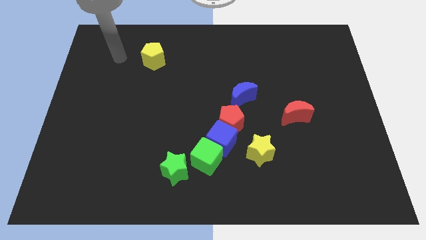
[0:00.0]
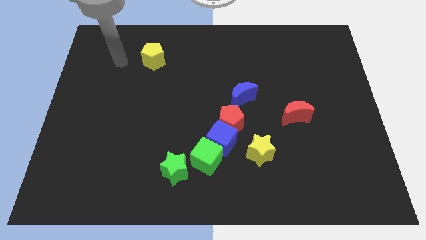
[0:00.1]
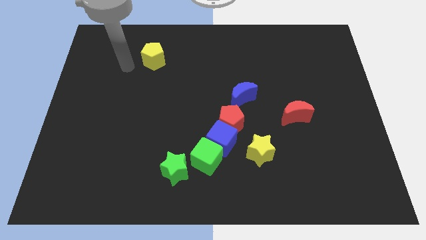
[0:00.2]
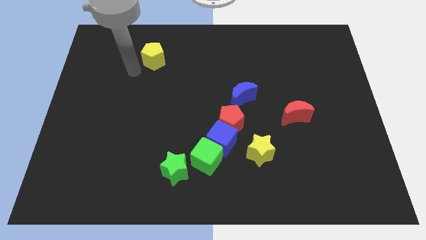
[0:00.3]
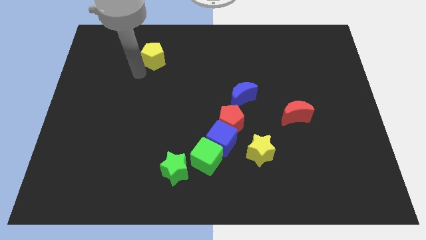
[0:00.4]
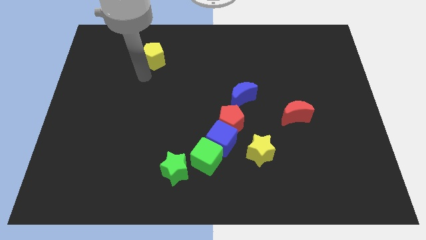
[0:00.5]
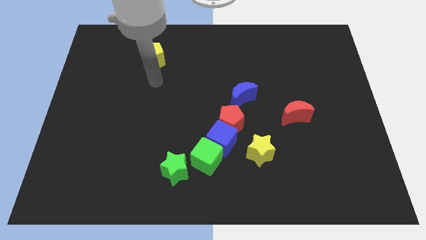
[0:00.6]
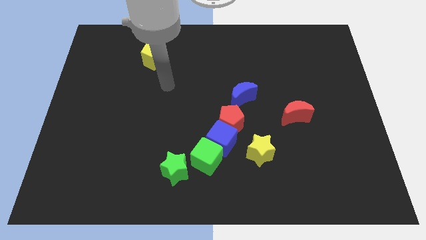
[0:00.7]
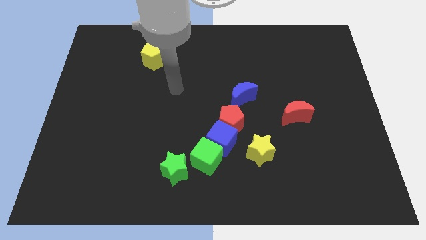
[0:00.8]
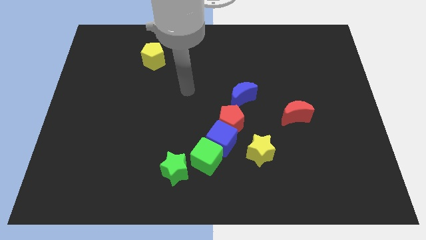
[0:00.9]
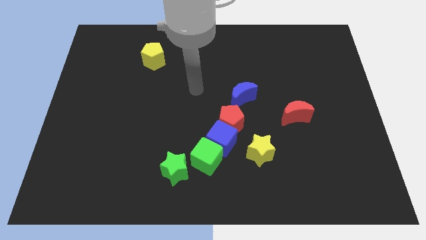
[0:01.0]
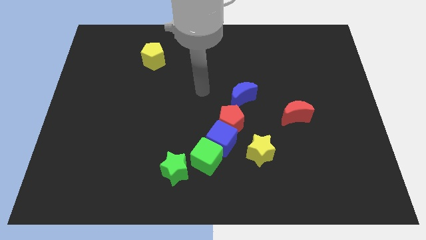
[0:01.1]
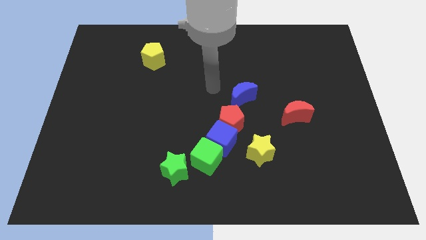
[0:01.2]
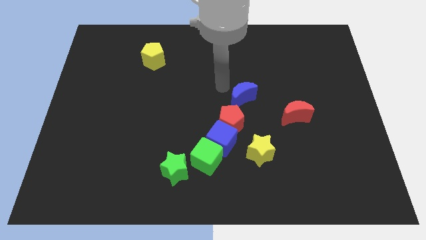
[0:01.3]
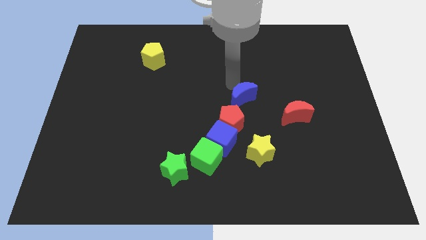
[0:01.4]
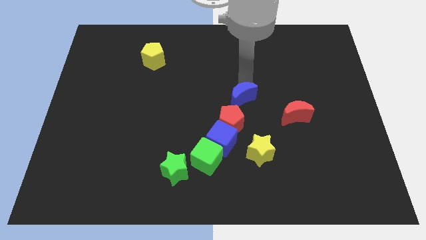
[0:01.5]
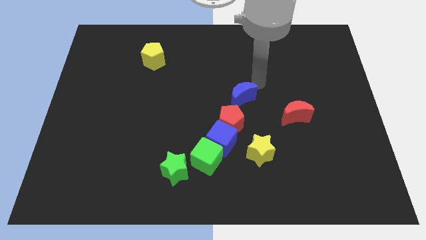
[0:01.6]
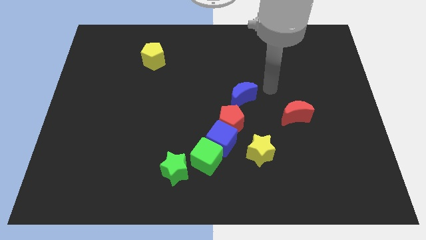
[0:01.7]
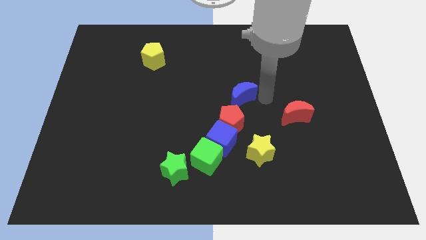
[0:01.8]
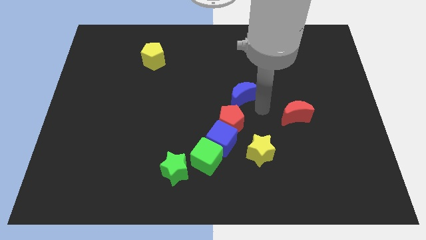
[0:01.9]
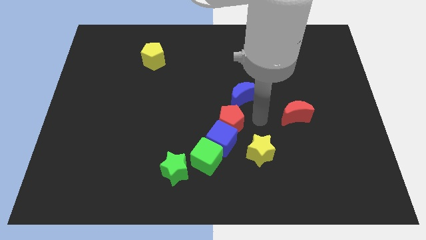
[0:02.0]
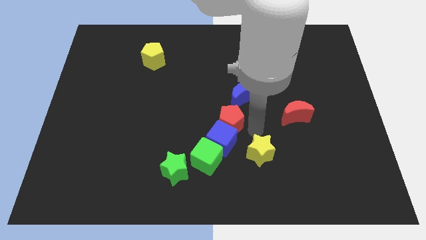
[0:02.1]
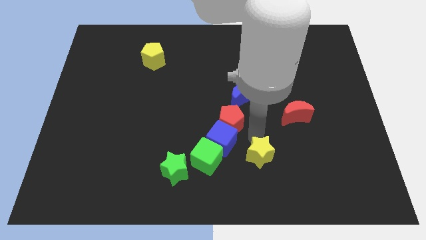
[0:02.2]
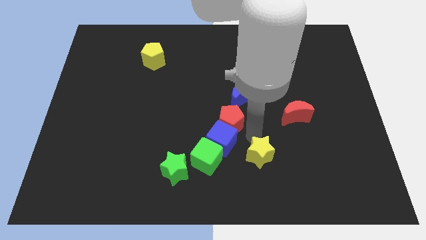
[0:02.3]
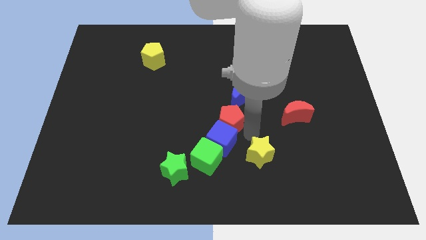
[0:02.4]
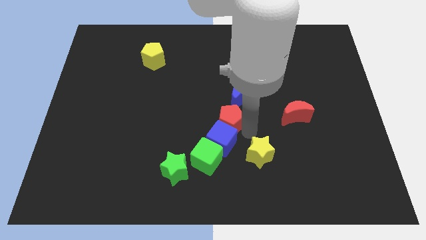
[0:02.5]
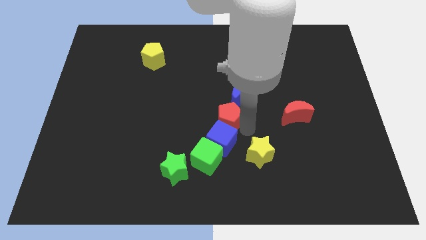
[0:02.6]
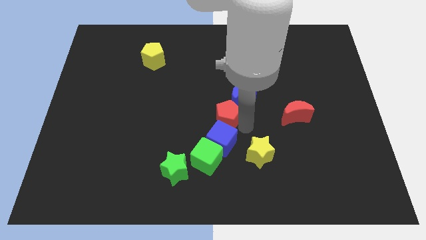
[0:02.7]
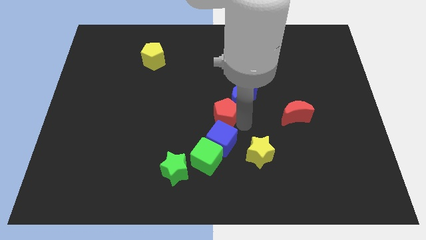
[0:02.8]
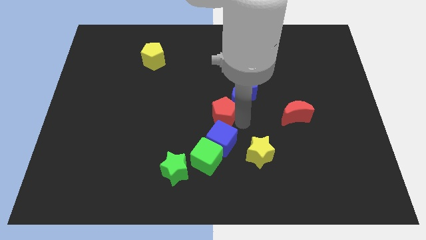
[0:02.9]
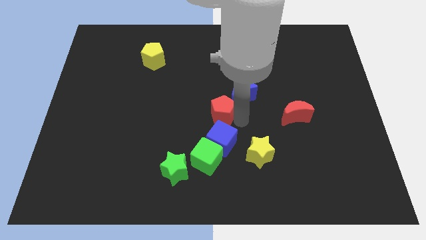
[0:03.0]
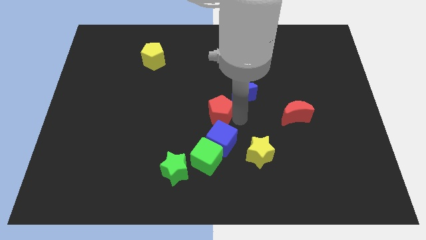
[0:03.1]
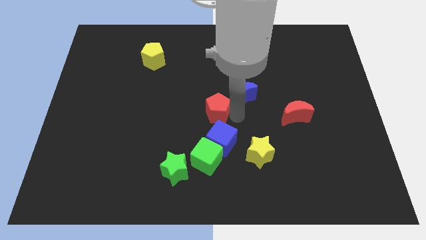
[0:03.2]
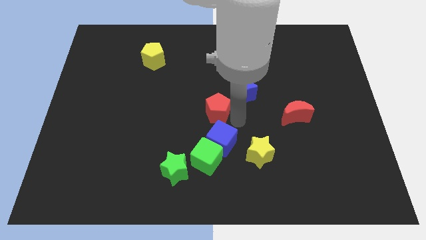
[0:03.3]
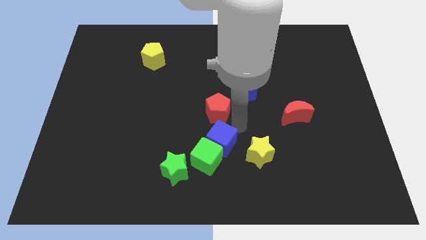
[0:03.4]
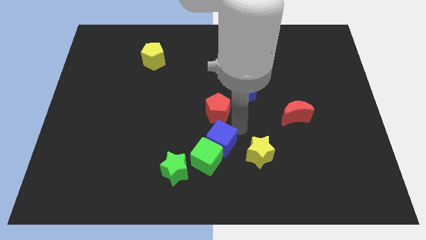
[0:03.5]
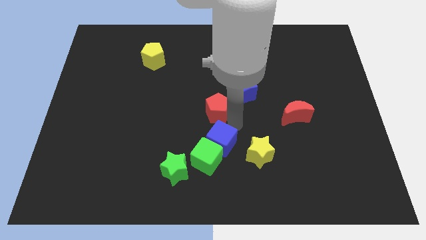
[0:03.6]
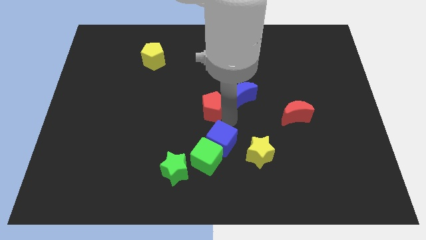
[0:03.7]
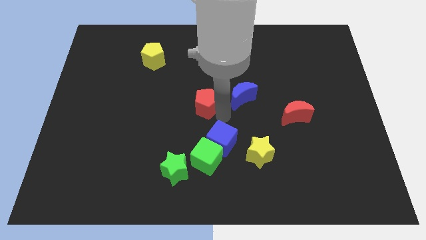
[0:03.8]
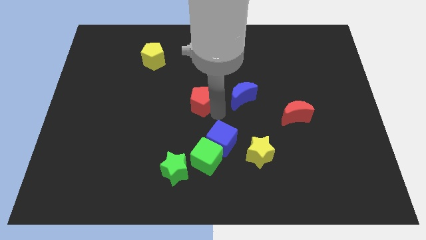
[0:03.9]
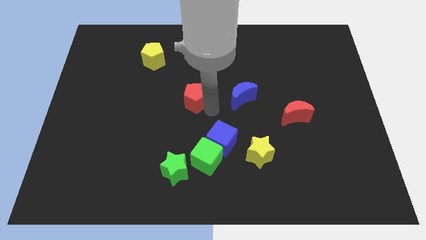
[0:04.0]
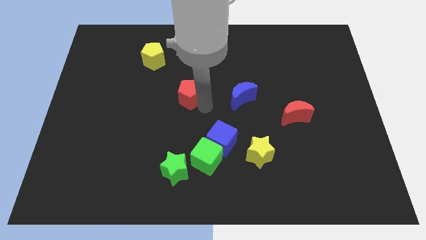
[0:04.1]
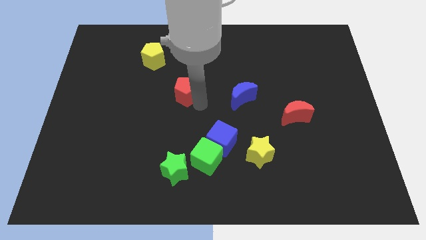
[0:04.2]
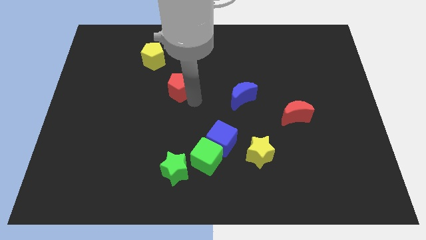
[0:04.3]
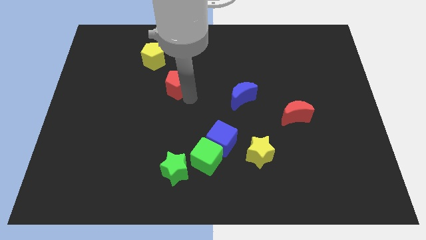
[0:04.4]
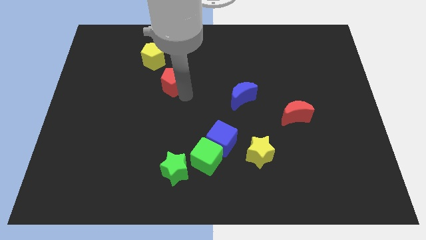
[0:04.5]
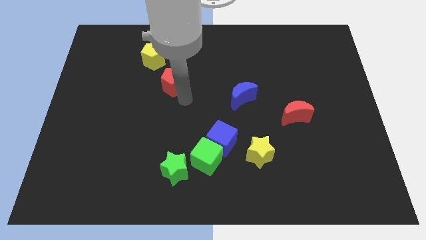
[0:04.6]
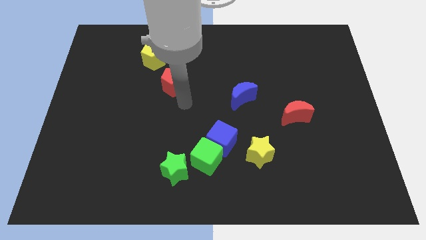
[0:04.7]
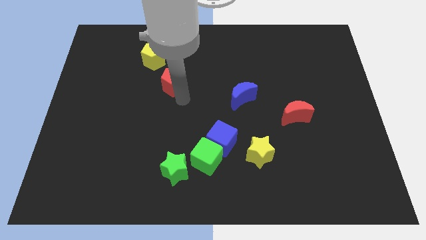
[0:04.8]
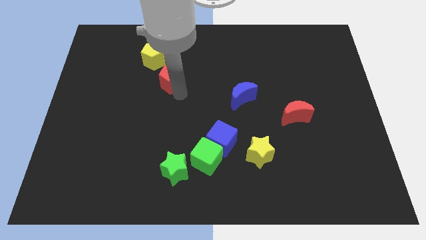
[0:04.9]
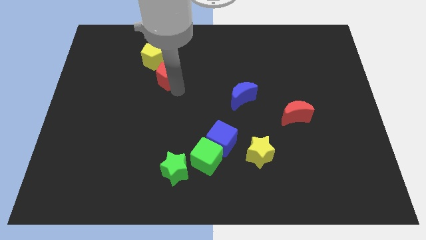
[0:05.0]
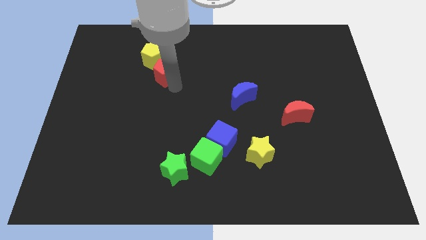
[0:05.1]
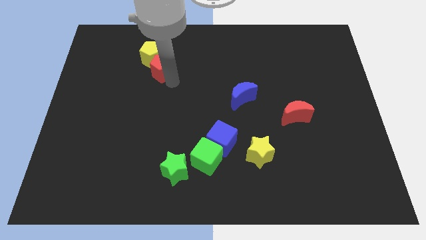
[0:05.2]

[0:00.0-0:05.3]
move the red pentagon to the yellow pentagon

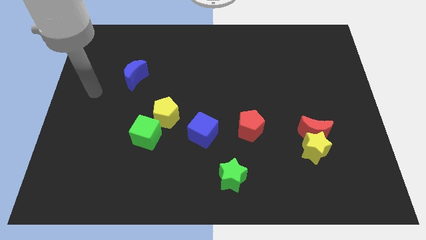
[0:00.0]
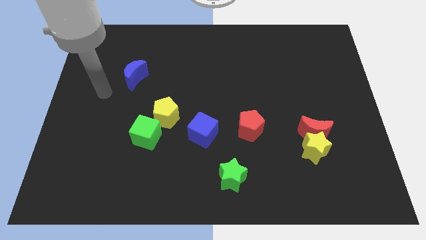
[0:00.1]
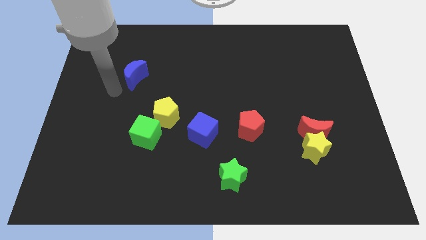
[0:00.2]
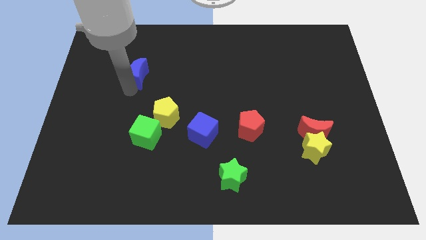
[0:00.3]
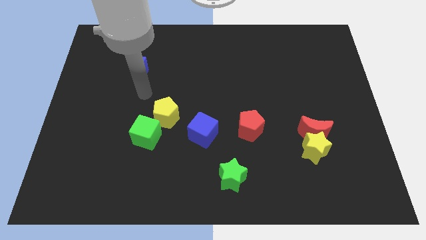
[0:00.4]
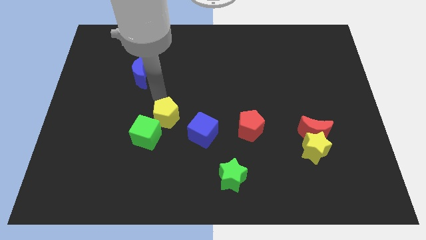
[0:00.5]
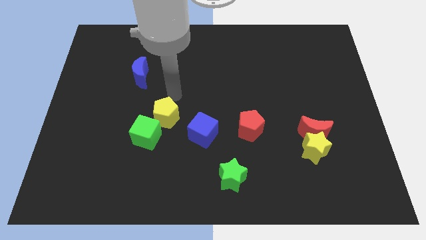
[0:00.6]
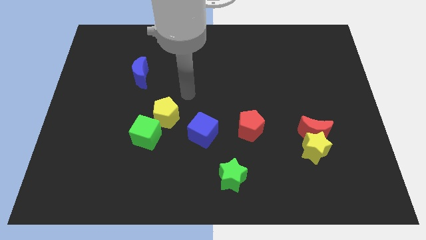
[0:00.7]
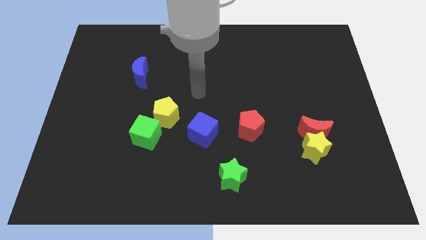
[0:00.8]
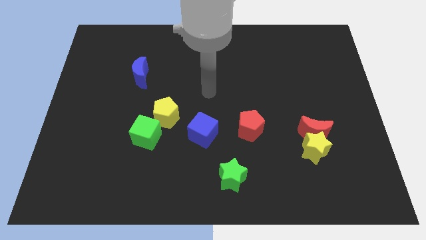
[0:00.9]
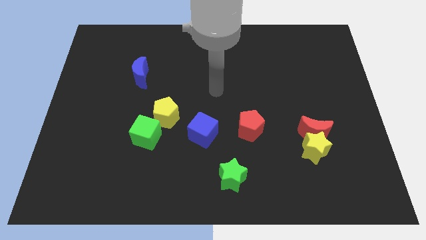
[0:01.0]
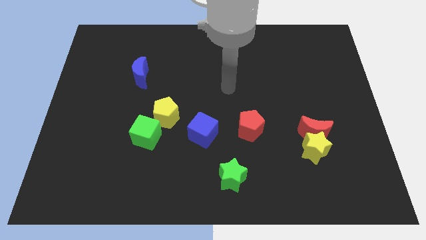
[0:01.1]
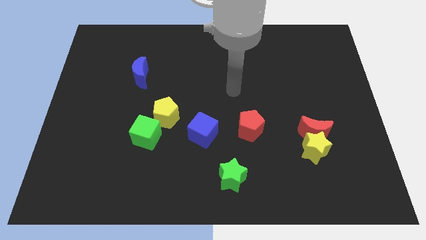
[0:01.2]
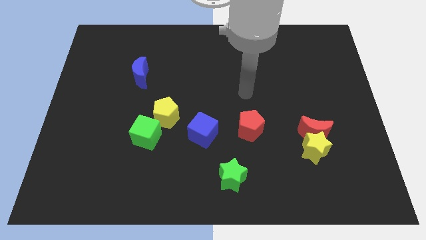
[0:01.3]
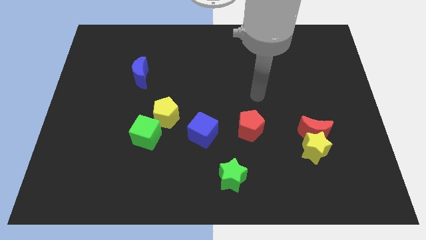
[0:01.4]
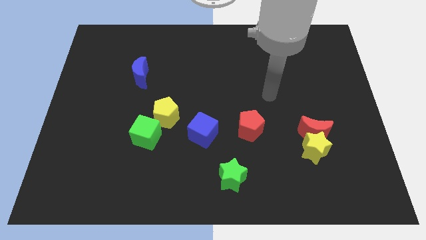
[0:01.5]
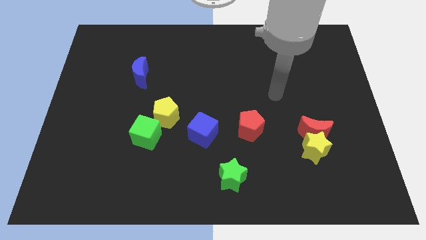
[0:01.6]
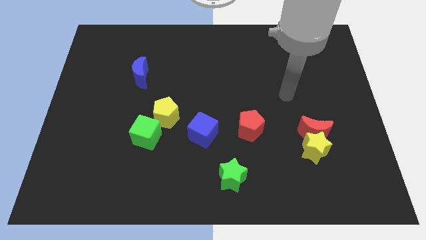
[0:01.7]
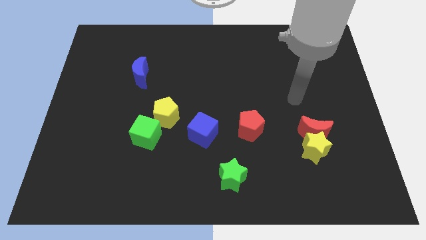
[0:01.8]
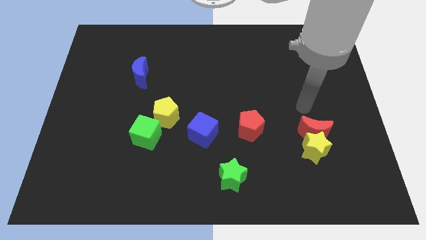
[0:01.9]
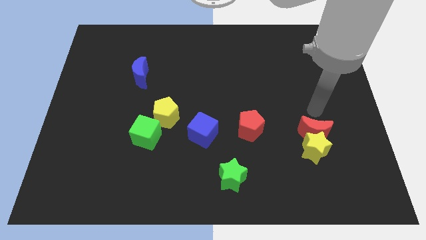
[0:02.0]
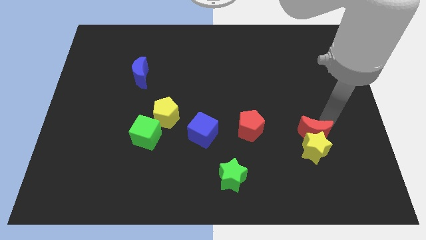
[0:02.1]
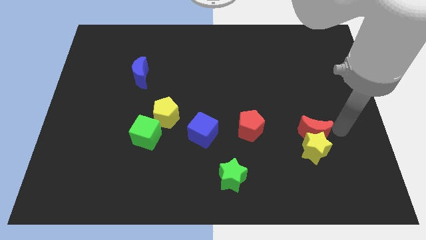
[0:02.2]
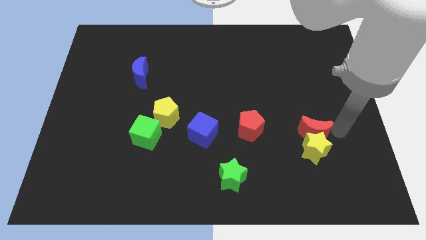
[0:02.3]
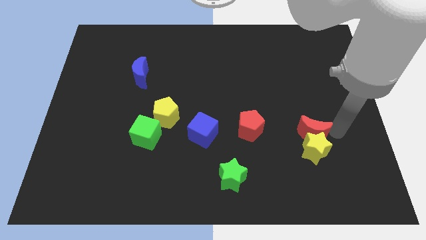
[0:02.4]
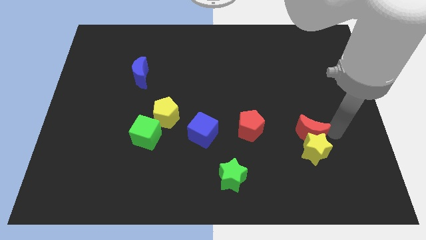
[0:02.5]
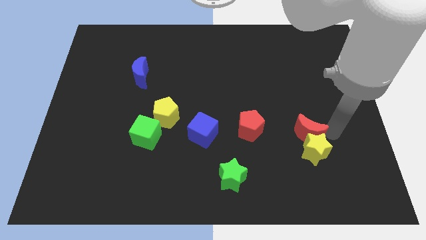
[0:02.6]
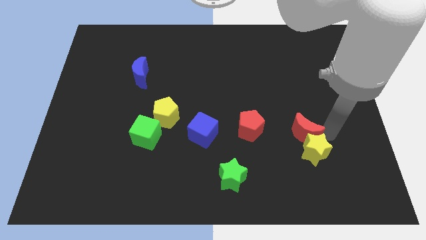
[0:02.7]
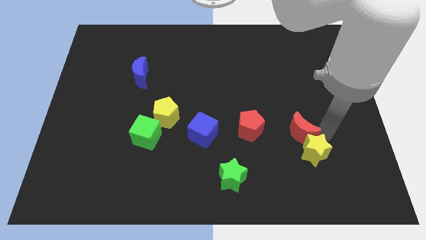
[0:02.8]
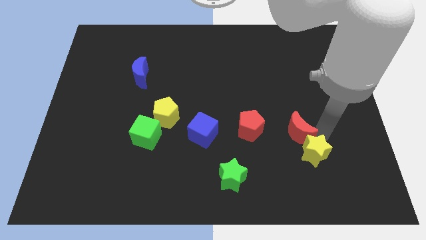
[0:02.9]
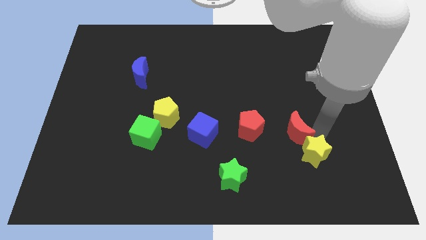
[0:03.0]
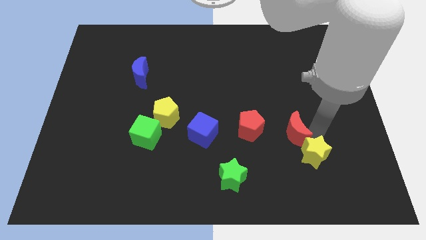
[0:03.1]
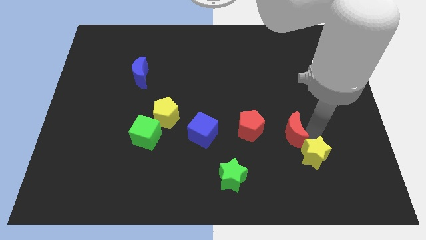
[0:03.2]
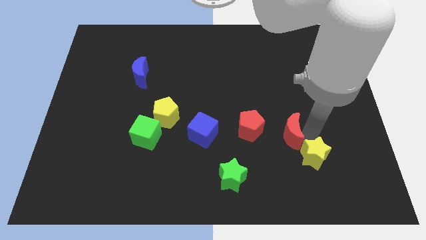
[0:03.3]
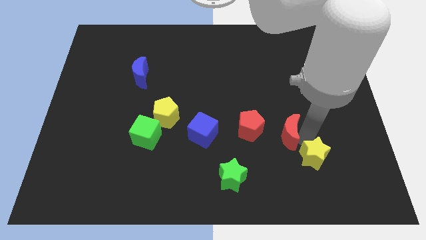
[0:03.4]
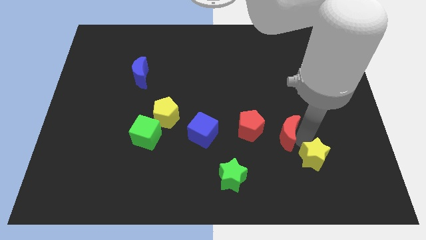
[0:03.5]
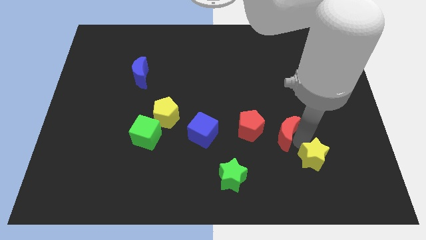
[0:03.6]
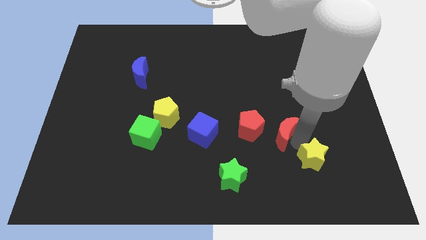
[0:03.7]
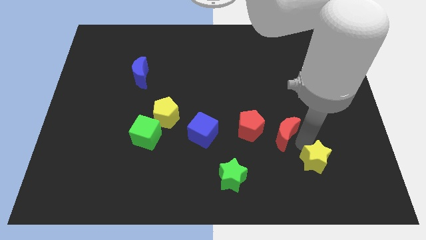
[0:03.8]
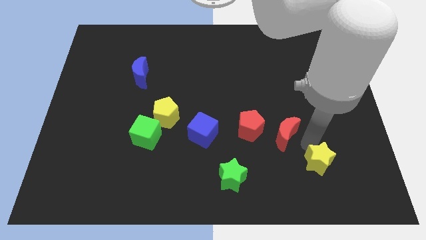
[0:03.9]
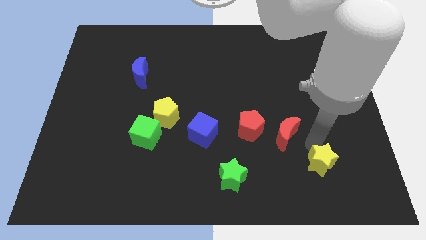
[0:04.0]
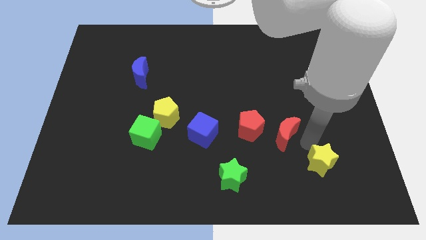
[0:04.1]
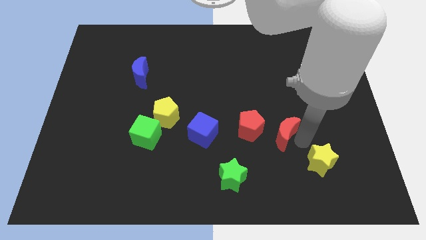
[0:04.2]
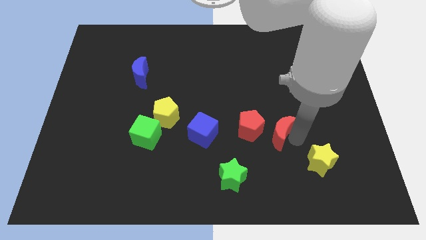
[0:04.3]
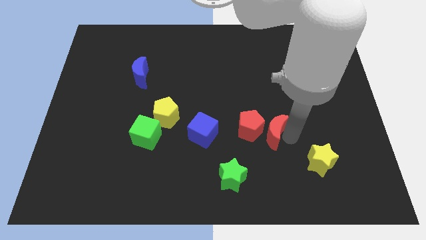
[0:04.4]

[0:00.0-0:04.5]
put the red moon next to the red pentagon
